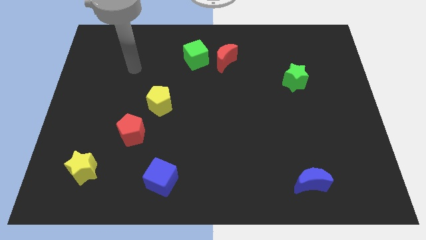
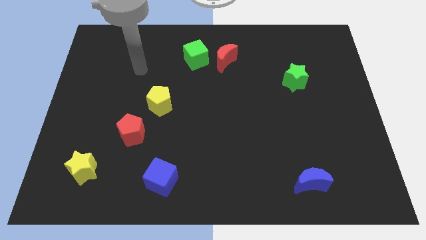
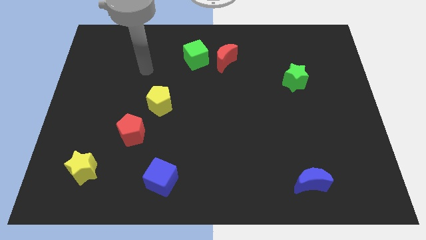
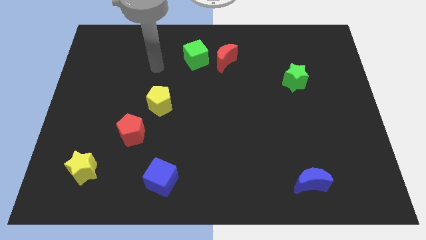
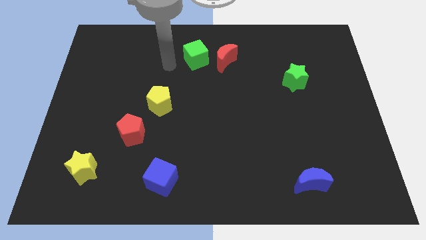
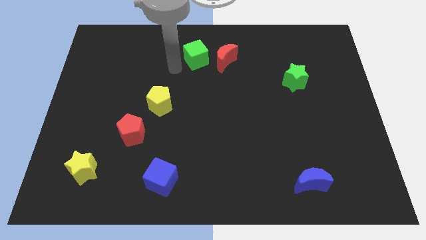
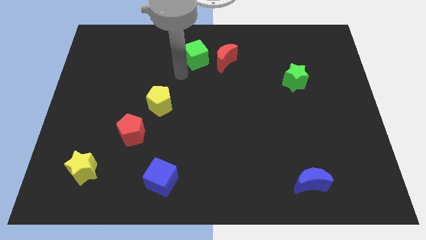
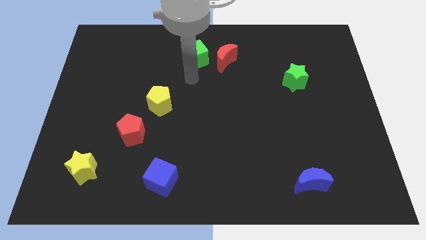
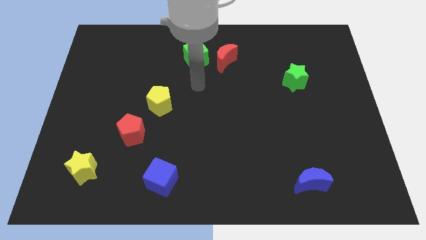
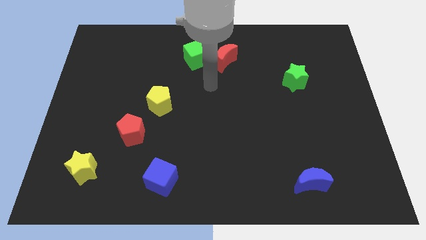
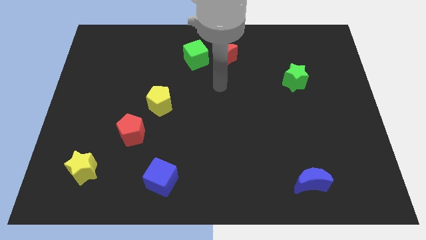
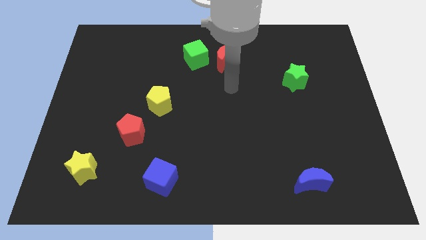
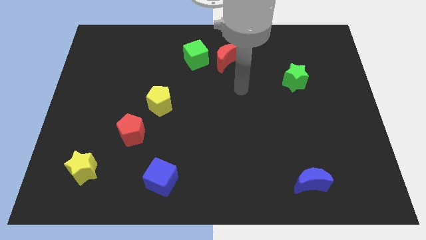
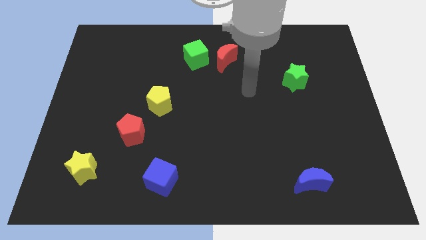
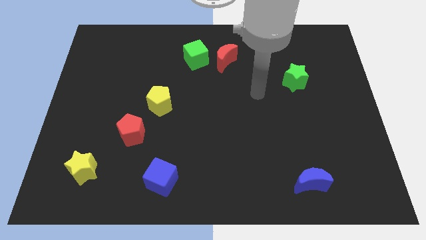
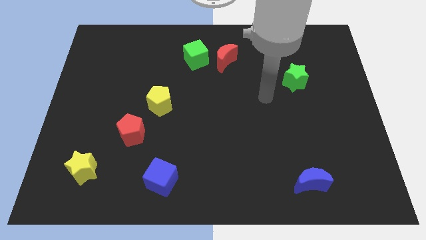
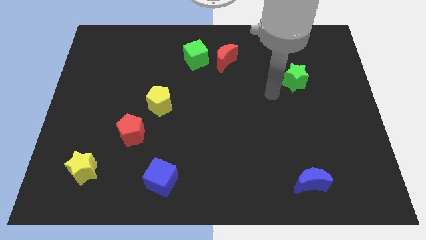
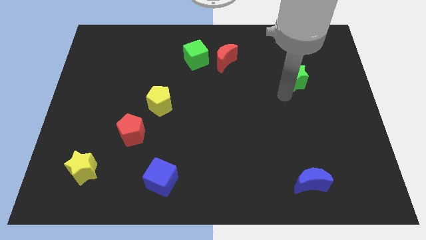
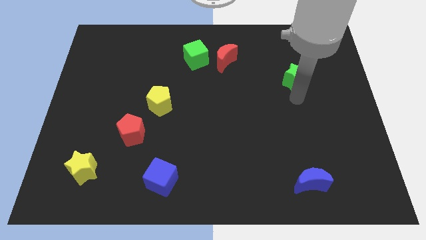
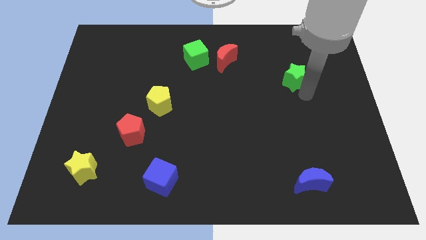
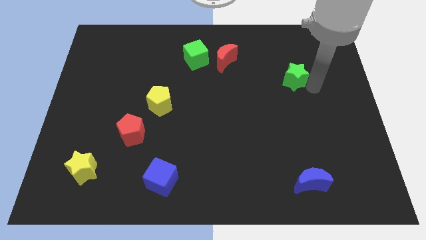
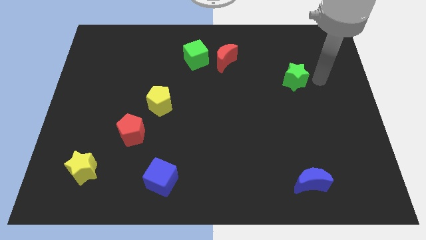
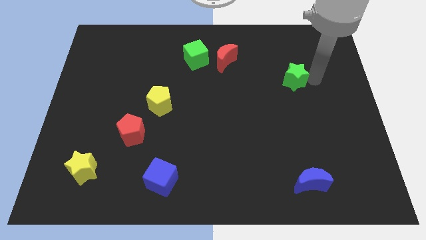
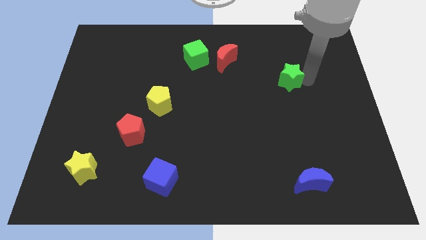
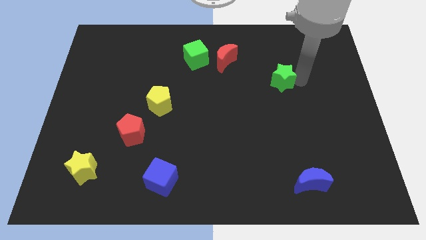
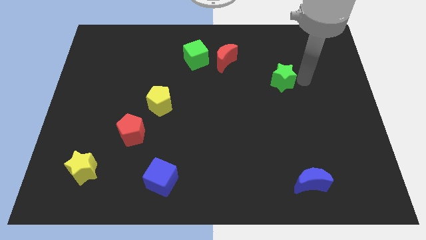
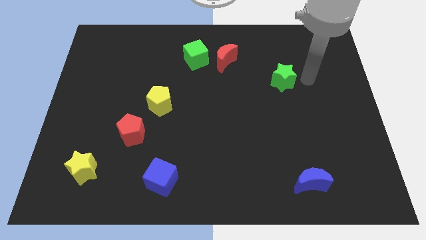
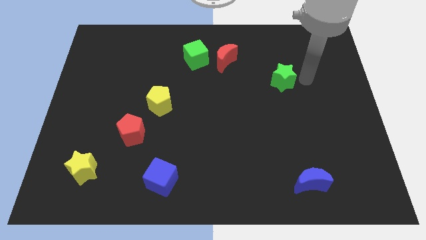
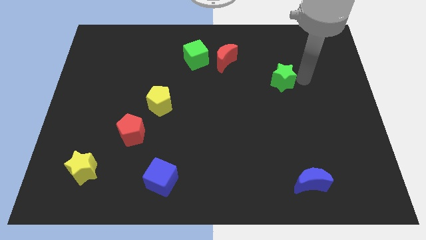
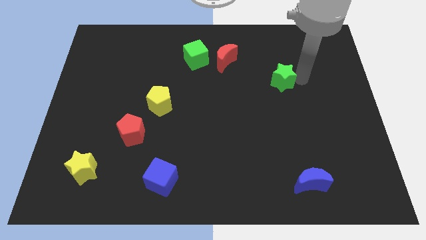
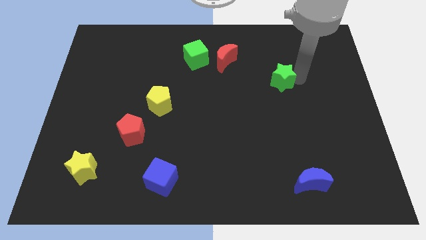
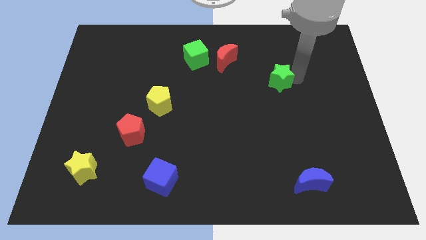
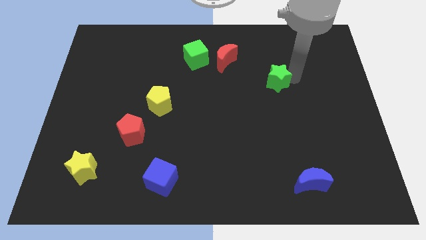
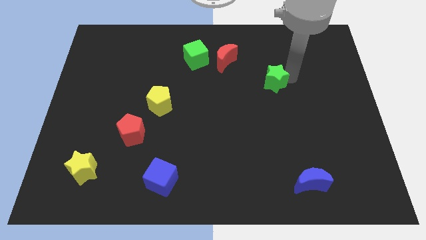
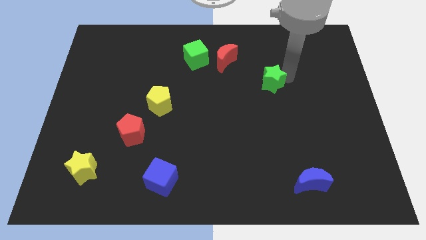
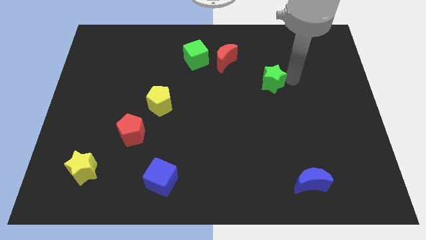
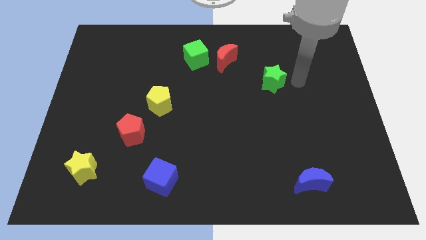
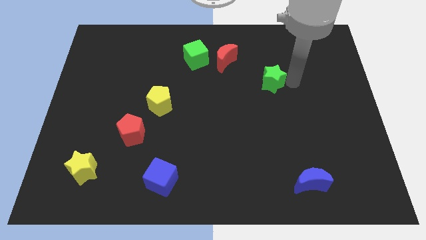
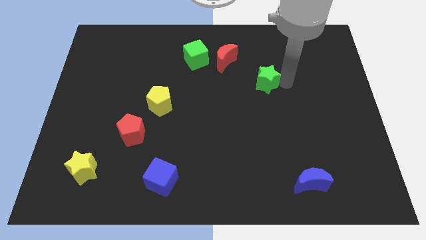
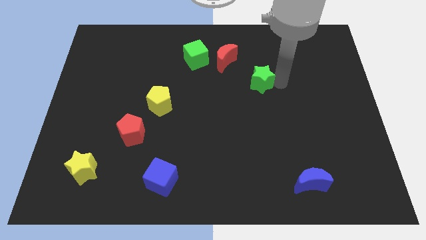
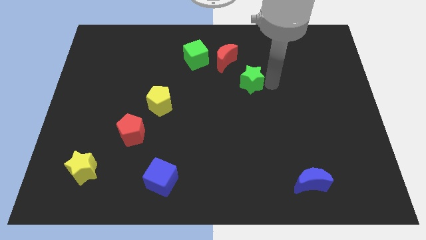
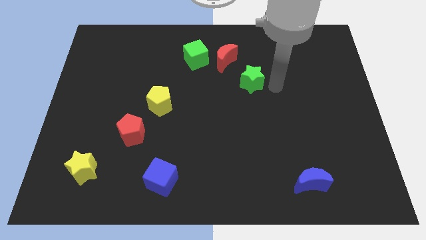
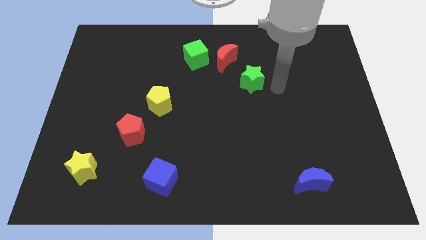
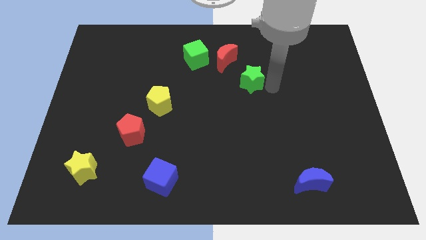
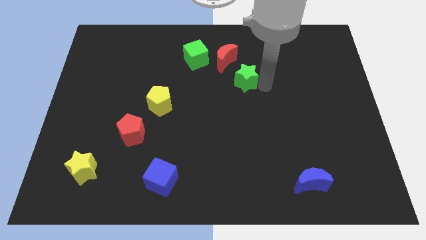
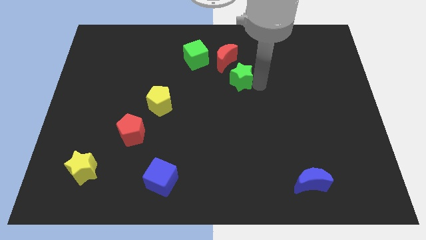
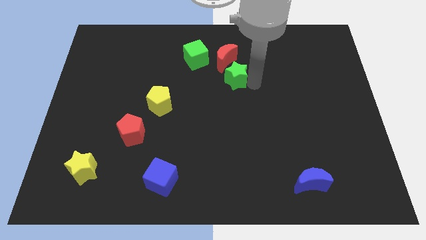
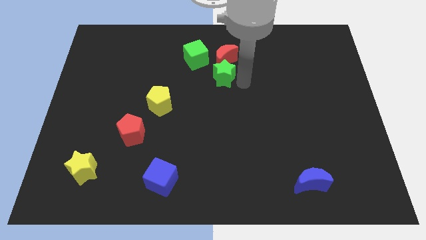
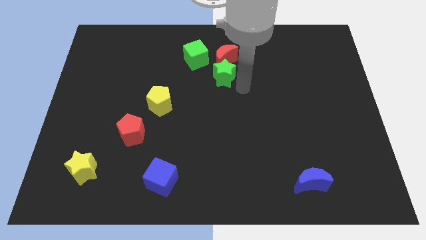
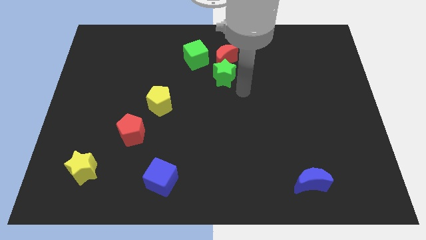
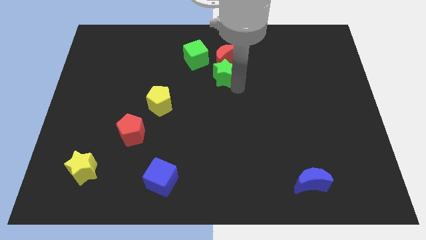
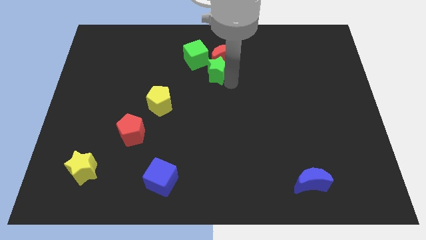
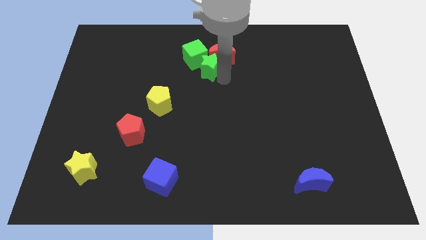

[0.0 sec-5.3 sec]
move the green star next to the green cube

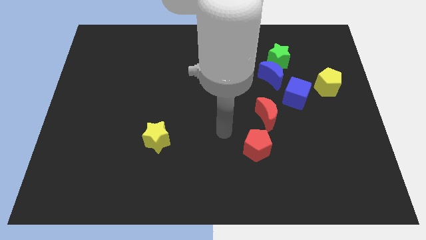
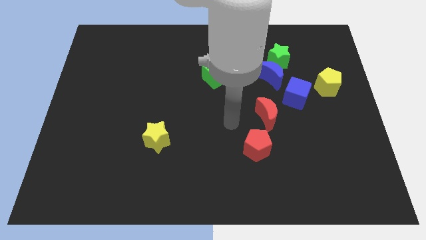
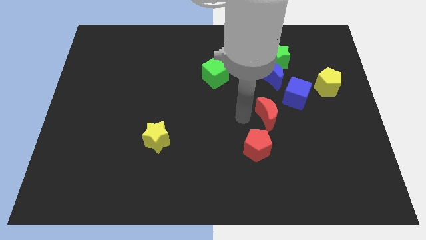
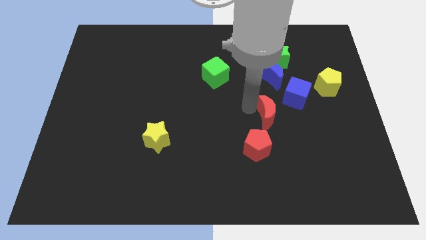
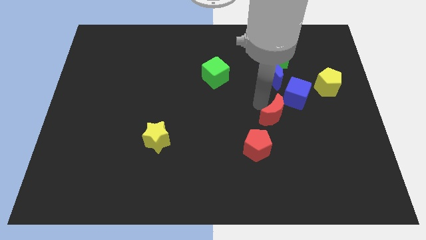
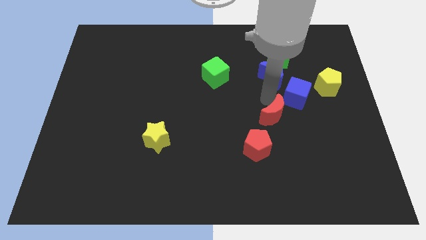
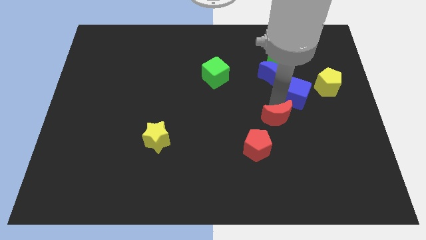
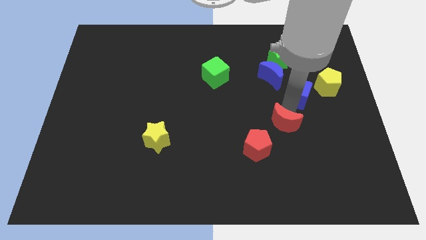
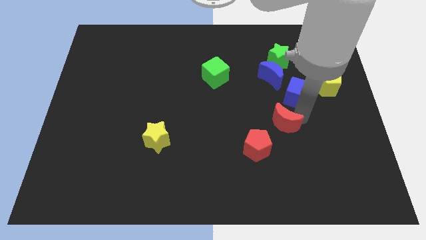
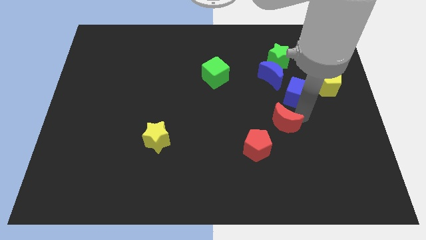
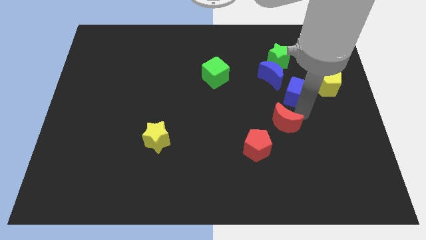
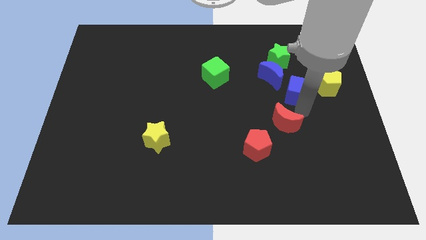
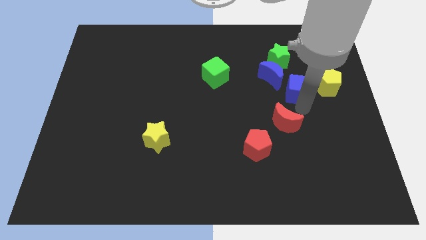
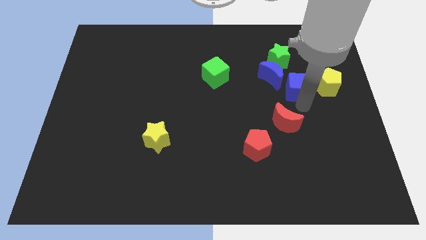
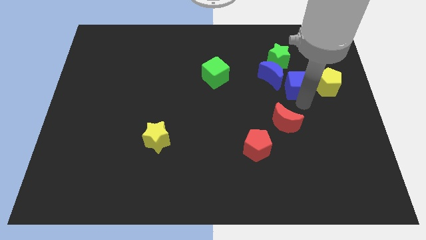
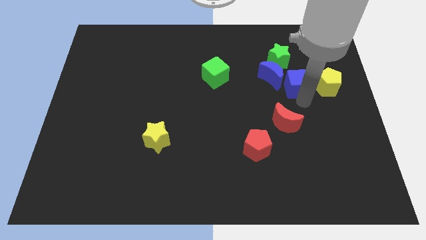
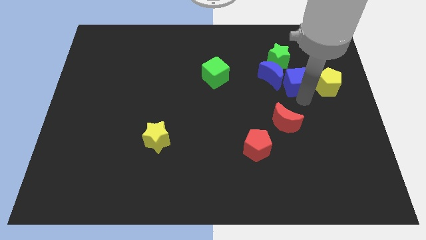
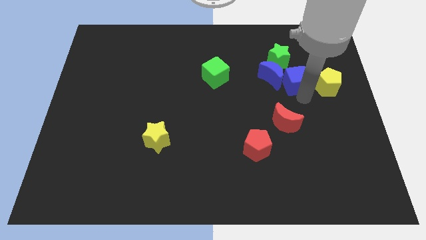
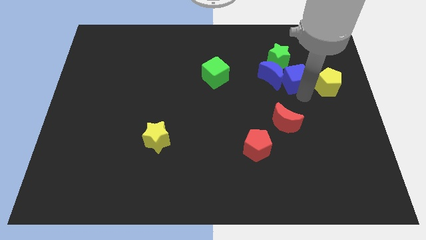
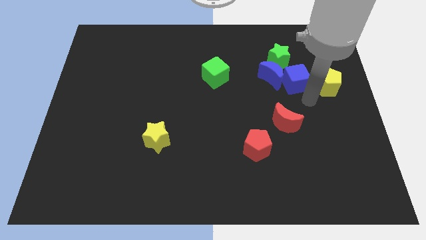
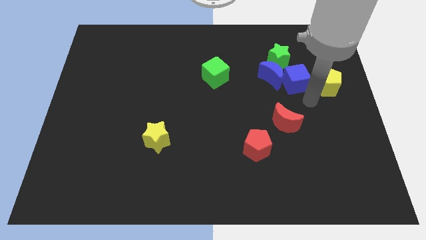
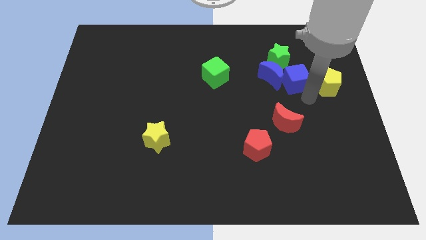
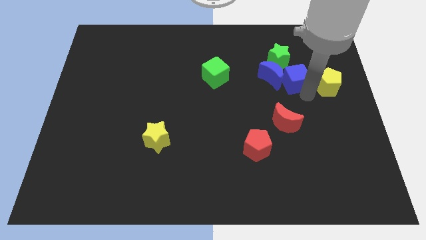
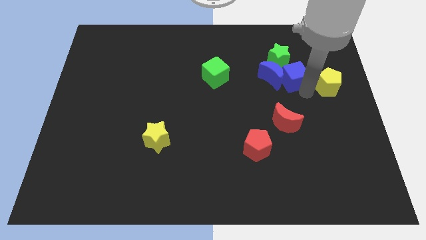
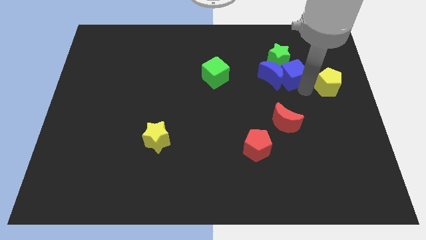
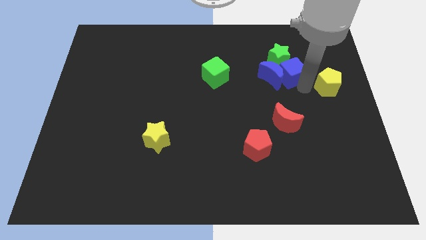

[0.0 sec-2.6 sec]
push the blue cube next to the green star
